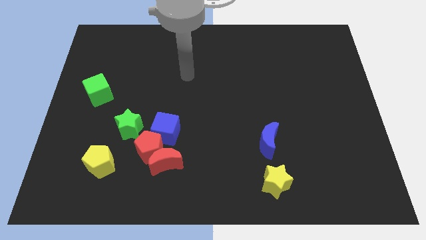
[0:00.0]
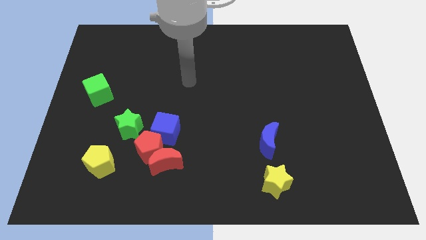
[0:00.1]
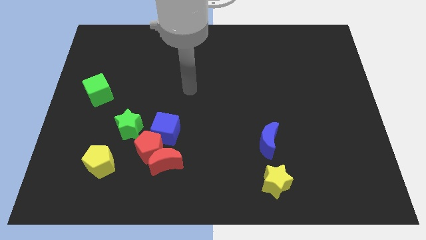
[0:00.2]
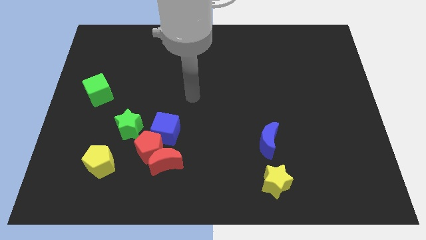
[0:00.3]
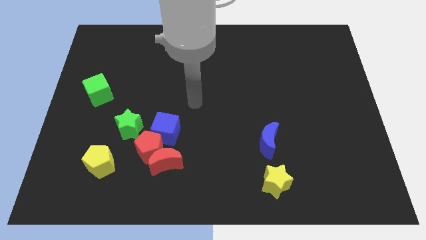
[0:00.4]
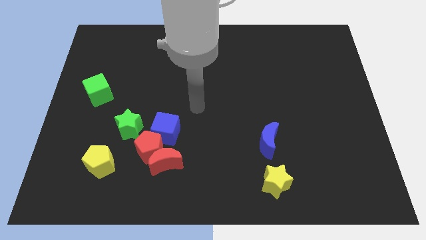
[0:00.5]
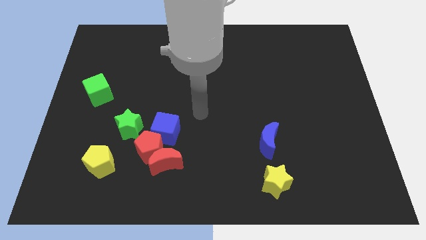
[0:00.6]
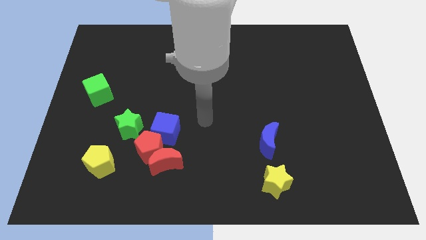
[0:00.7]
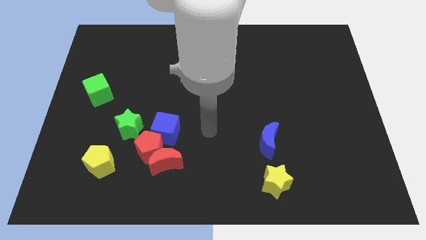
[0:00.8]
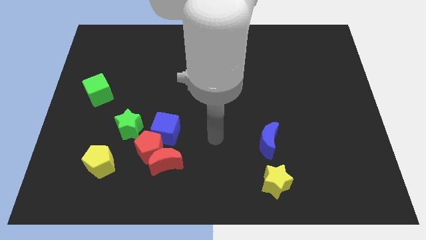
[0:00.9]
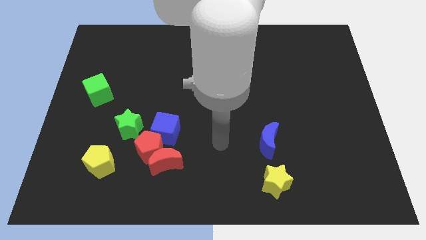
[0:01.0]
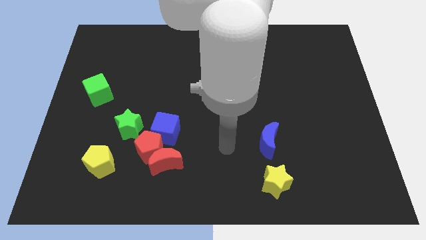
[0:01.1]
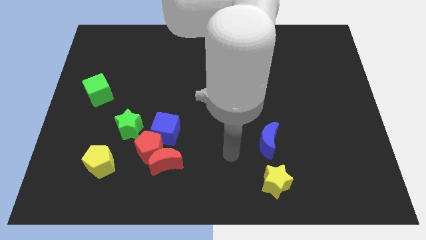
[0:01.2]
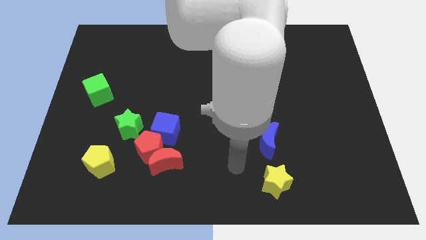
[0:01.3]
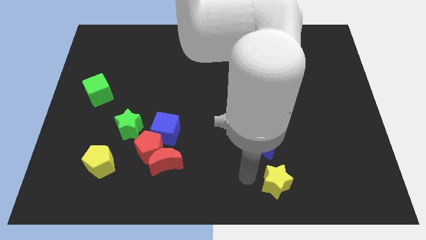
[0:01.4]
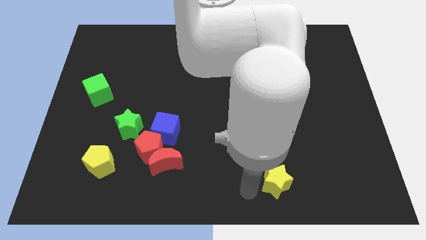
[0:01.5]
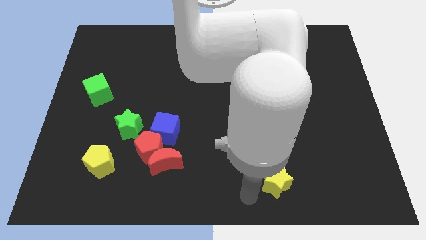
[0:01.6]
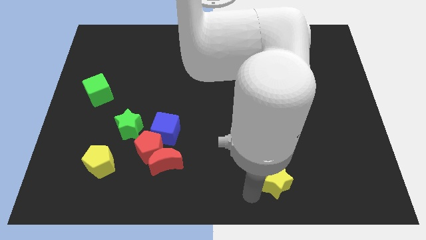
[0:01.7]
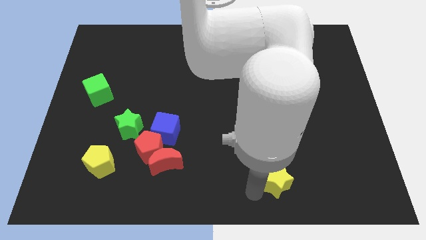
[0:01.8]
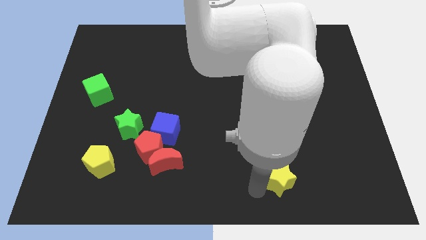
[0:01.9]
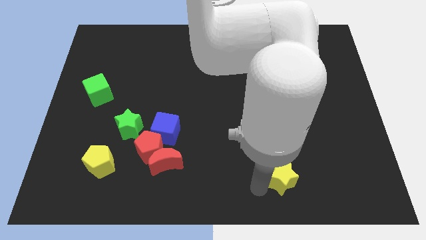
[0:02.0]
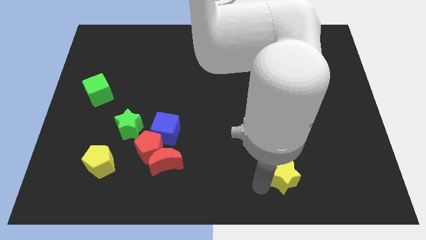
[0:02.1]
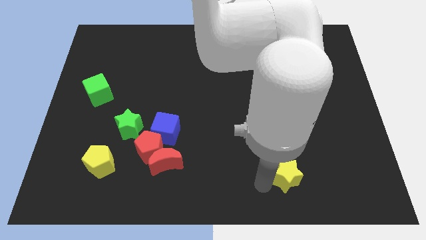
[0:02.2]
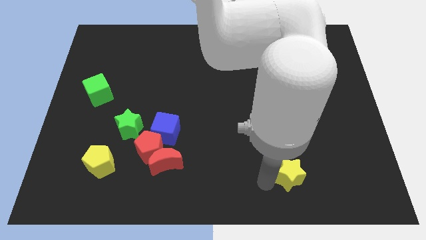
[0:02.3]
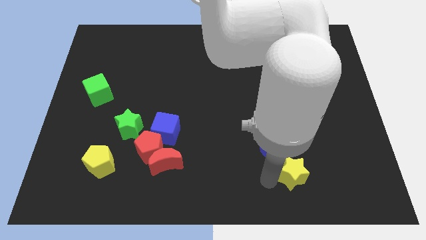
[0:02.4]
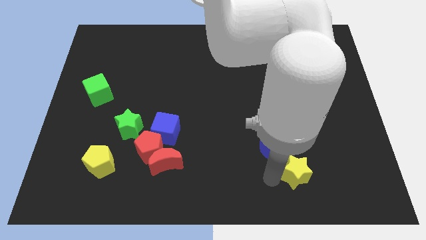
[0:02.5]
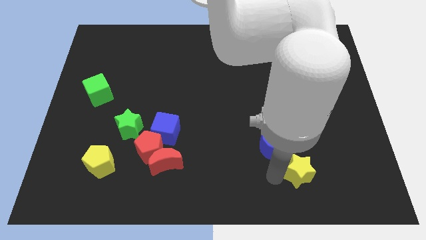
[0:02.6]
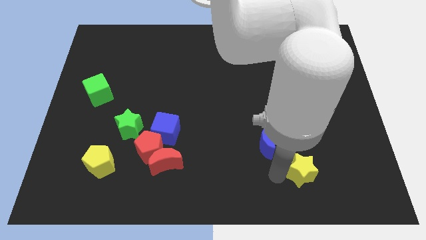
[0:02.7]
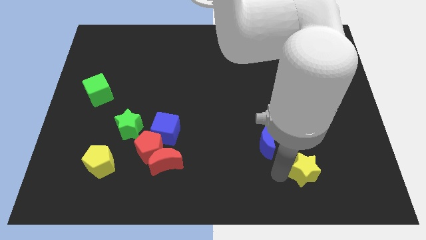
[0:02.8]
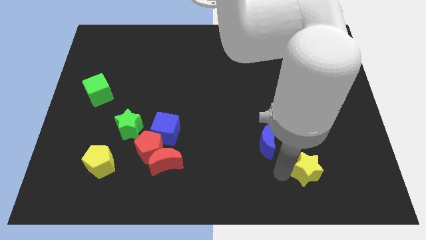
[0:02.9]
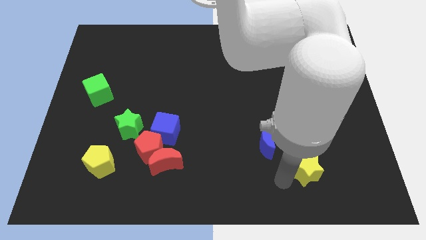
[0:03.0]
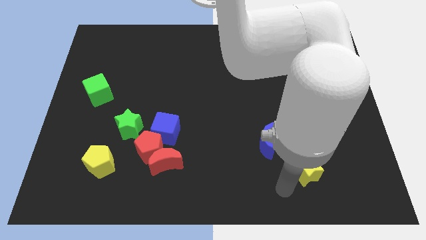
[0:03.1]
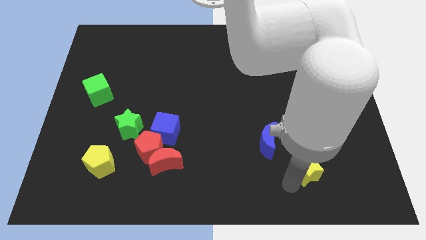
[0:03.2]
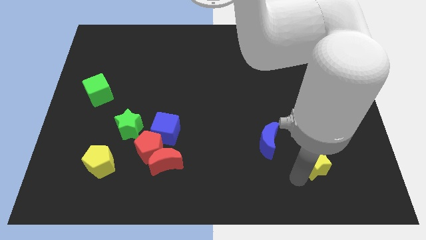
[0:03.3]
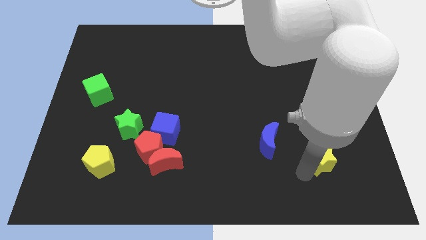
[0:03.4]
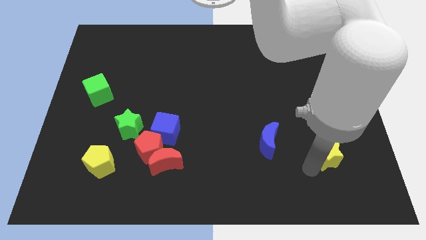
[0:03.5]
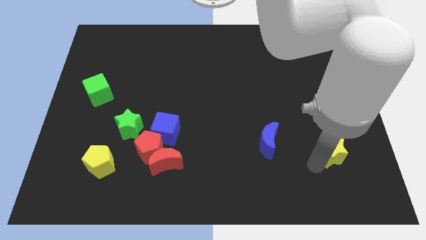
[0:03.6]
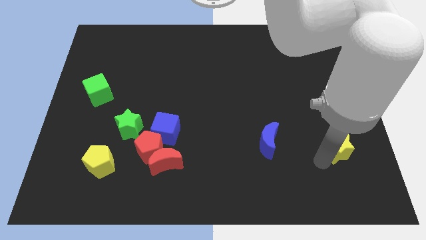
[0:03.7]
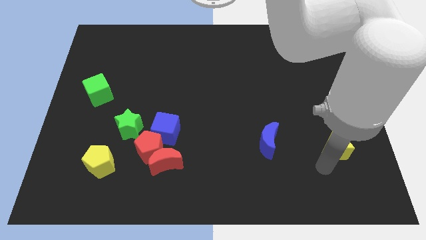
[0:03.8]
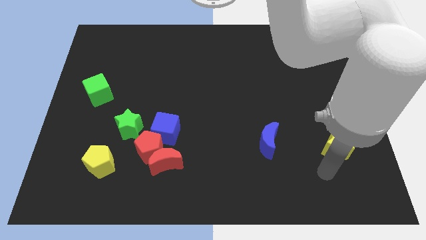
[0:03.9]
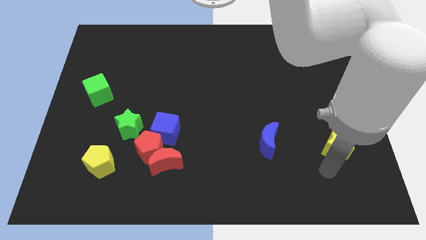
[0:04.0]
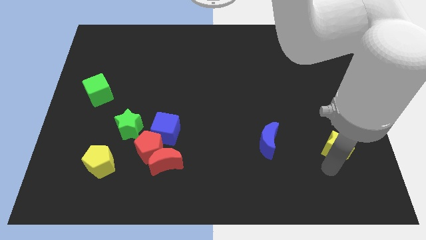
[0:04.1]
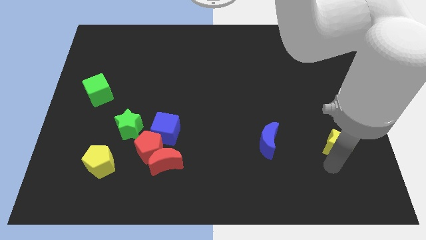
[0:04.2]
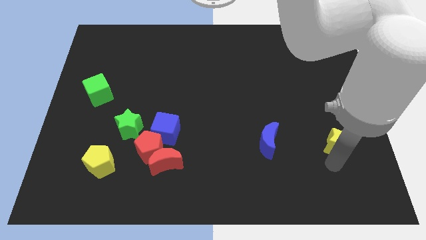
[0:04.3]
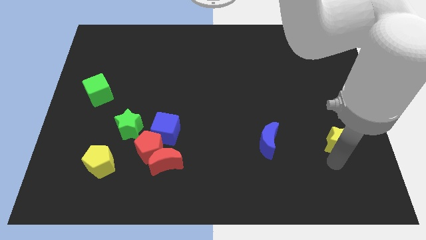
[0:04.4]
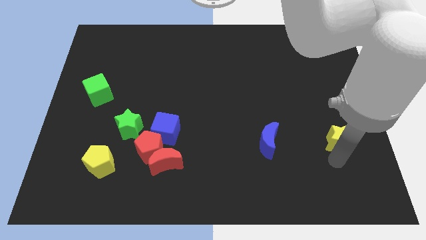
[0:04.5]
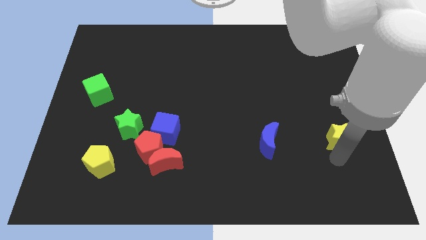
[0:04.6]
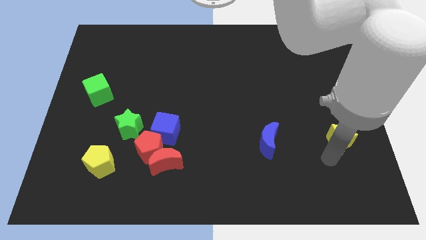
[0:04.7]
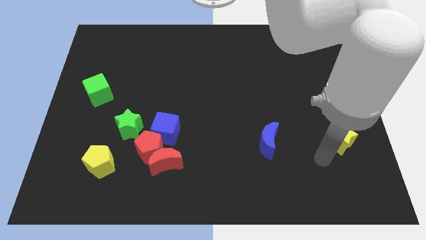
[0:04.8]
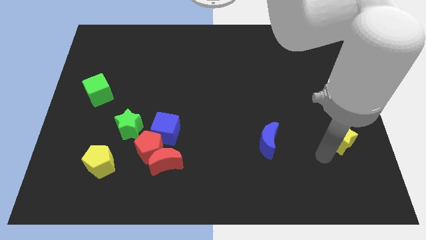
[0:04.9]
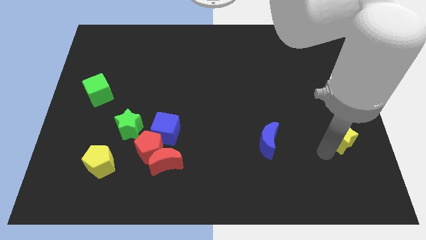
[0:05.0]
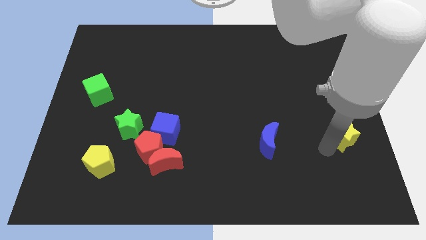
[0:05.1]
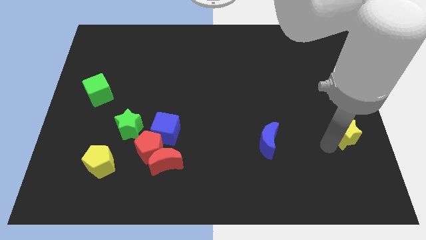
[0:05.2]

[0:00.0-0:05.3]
slide the yellow star to the center right

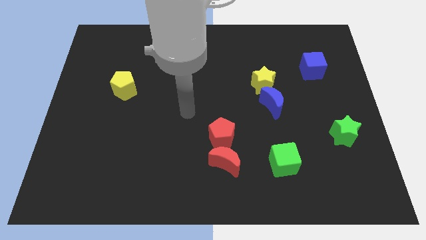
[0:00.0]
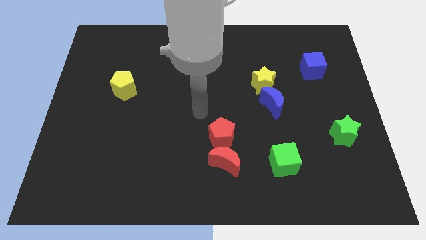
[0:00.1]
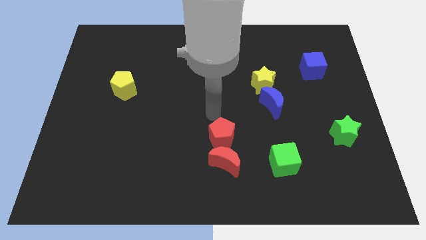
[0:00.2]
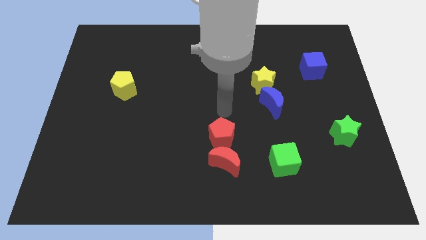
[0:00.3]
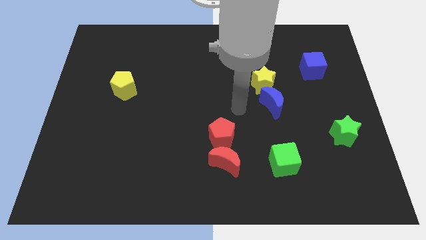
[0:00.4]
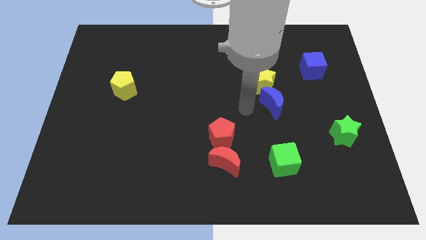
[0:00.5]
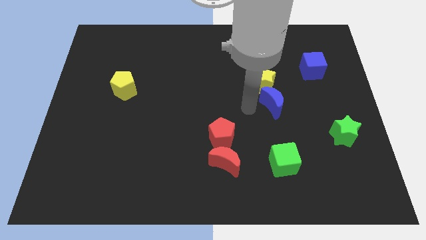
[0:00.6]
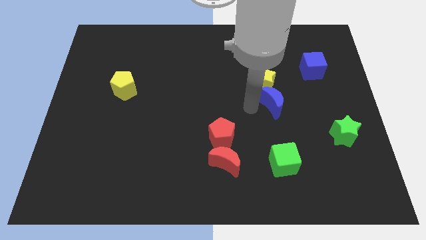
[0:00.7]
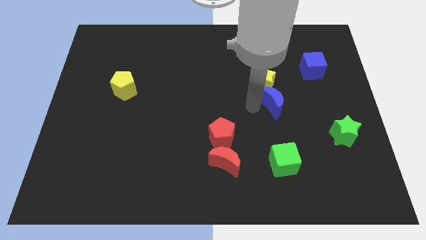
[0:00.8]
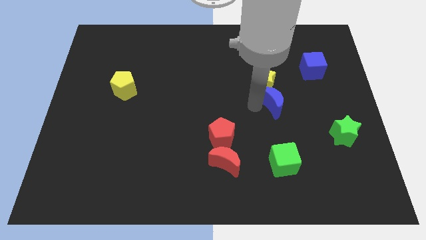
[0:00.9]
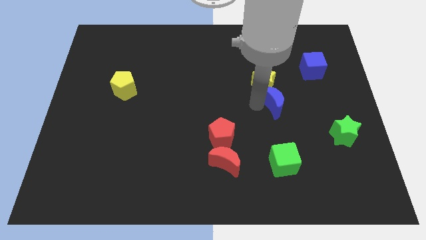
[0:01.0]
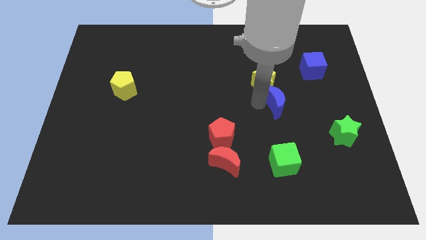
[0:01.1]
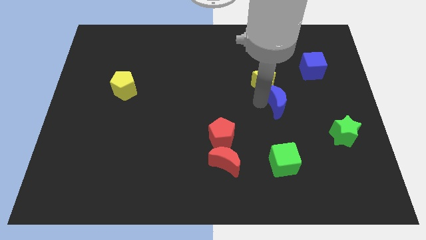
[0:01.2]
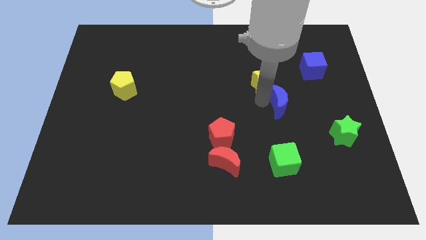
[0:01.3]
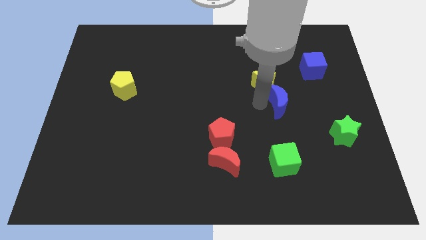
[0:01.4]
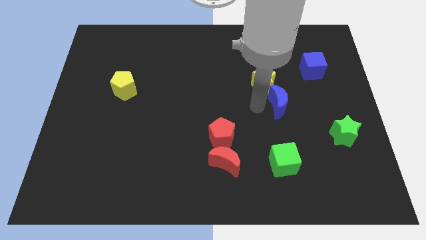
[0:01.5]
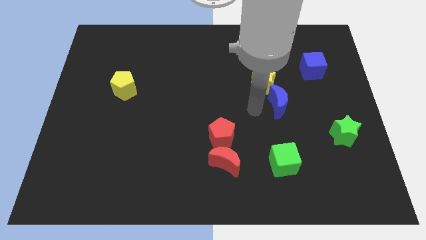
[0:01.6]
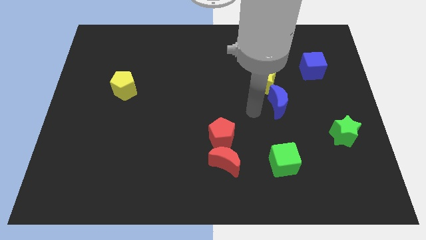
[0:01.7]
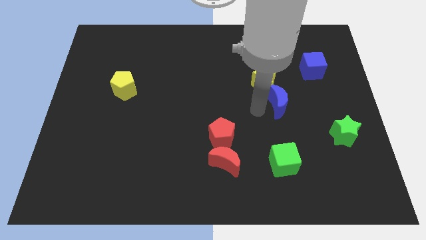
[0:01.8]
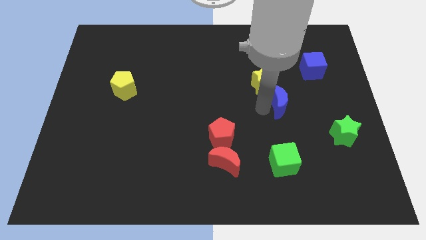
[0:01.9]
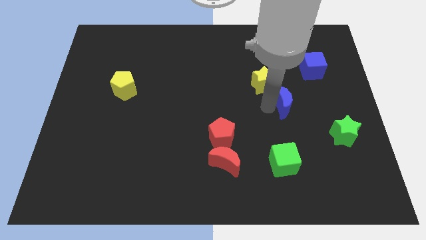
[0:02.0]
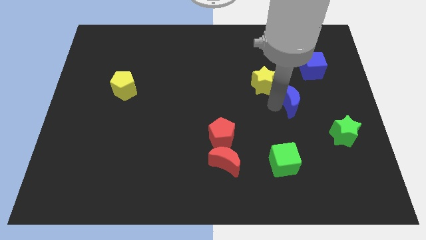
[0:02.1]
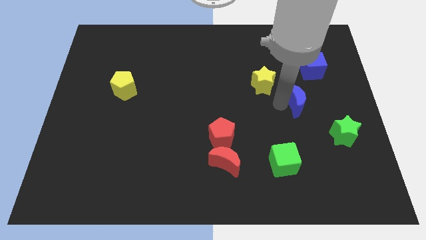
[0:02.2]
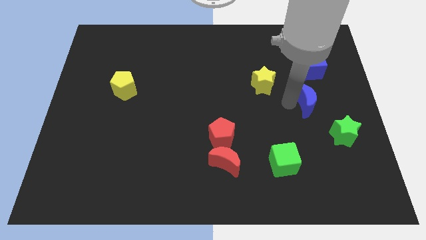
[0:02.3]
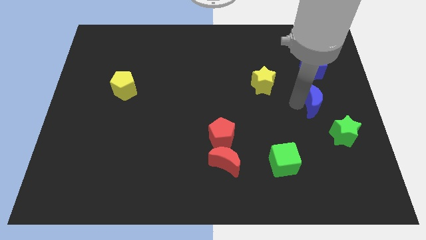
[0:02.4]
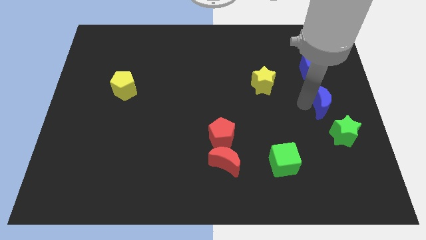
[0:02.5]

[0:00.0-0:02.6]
slide the blue moon to the center right
